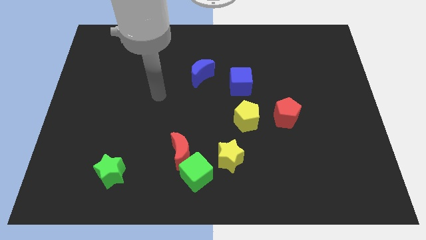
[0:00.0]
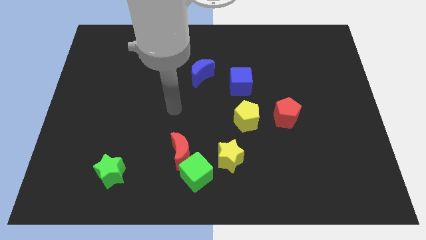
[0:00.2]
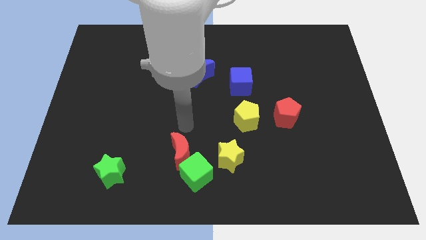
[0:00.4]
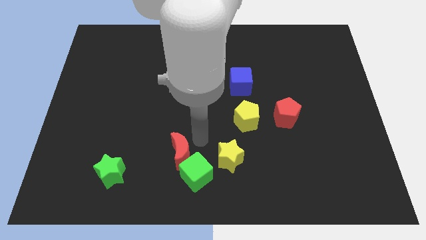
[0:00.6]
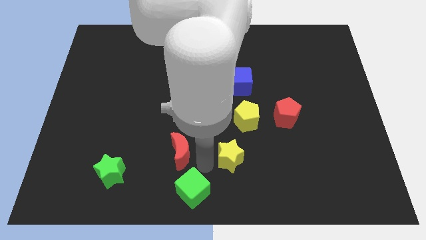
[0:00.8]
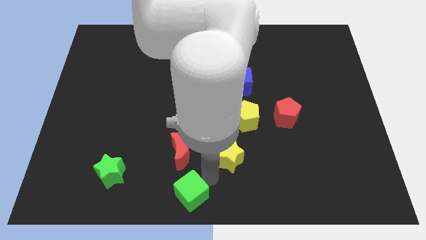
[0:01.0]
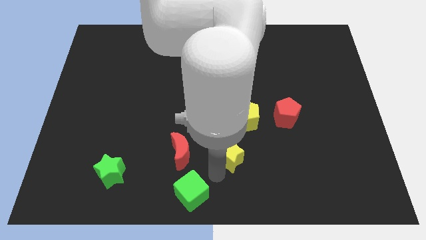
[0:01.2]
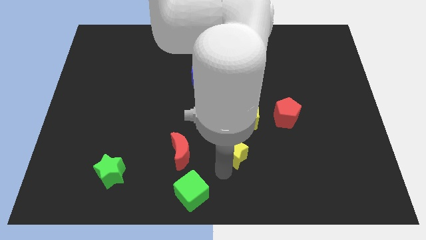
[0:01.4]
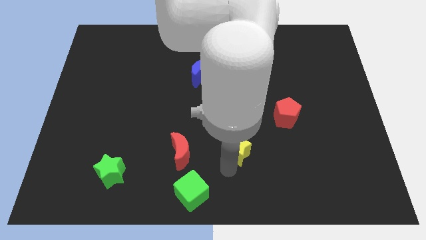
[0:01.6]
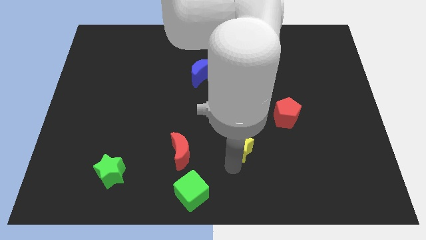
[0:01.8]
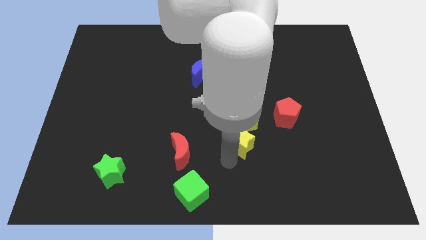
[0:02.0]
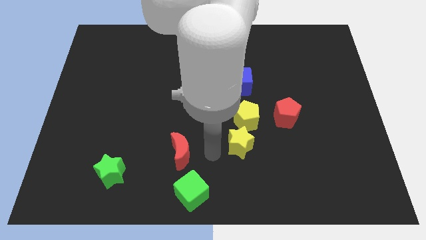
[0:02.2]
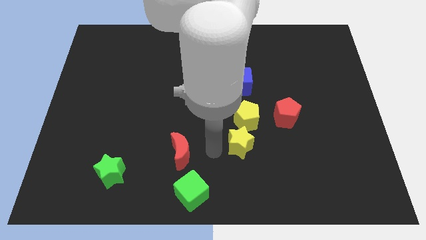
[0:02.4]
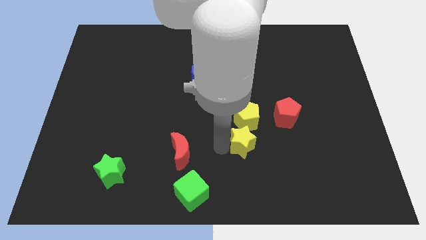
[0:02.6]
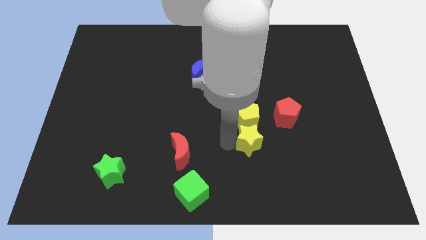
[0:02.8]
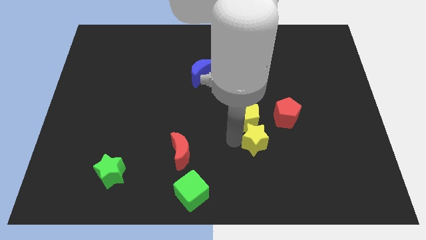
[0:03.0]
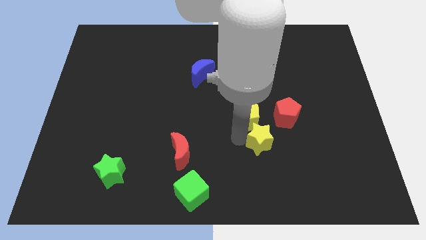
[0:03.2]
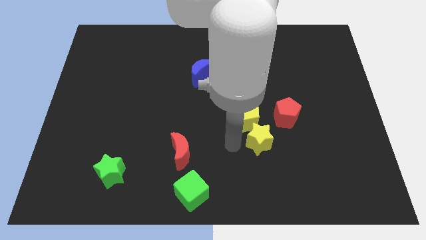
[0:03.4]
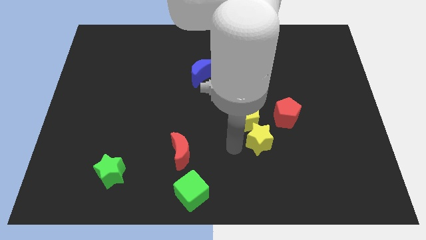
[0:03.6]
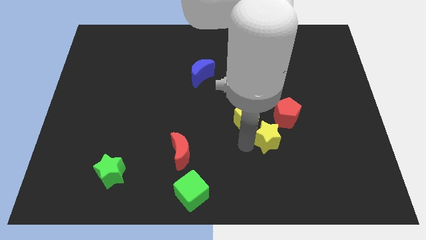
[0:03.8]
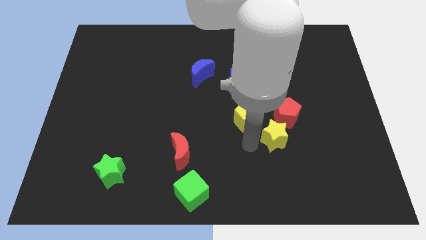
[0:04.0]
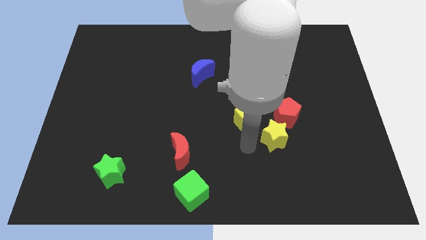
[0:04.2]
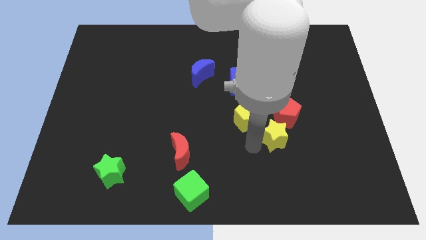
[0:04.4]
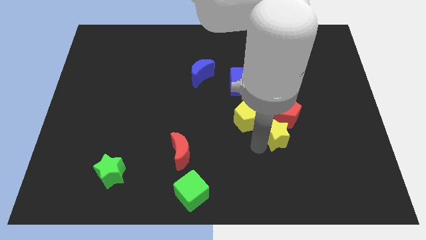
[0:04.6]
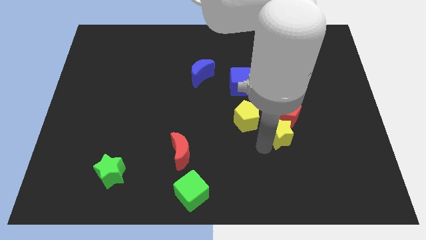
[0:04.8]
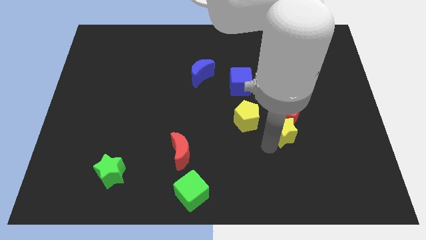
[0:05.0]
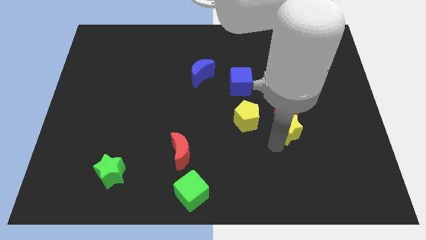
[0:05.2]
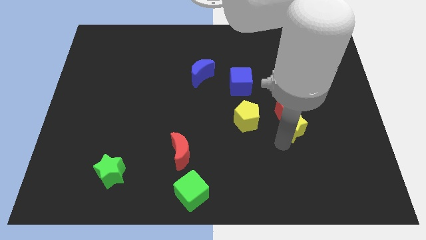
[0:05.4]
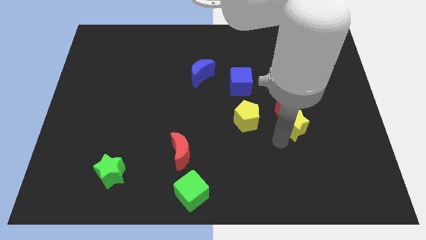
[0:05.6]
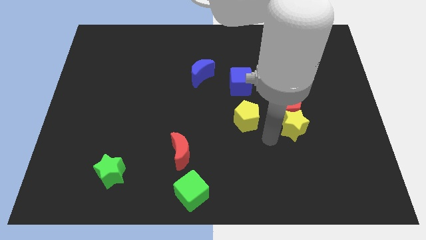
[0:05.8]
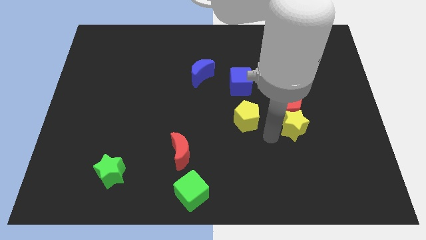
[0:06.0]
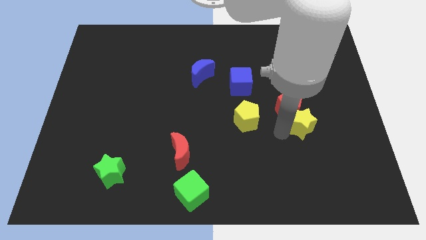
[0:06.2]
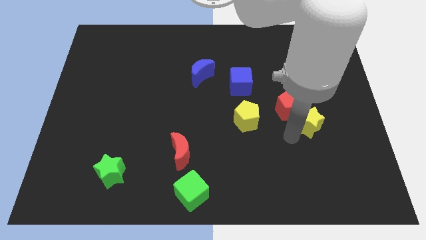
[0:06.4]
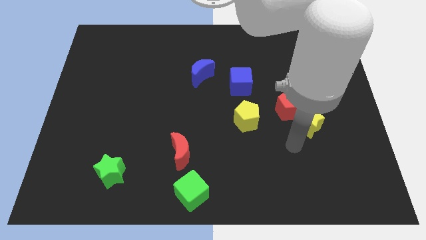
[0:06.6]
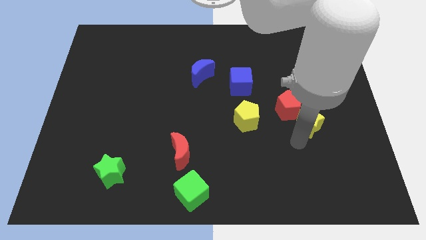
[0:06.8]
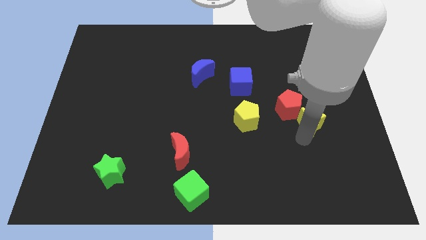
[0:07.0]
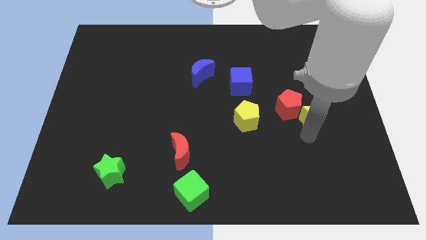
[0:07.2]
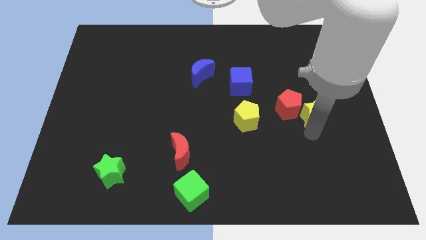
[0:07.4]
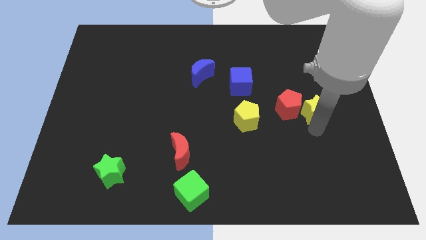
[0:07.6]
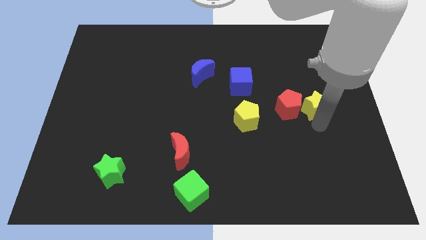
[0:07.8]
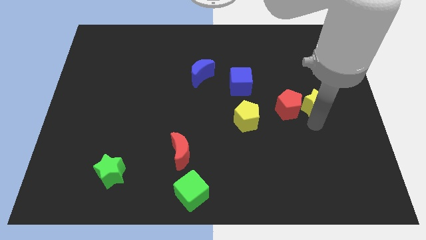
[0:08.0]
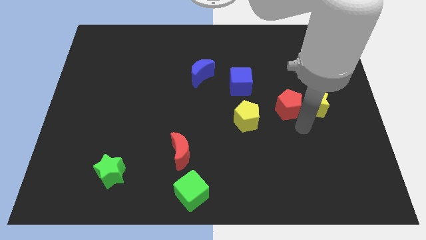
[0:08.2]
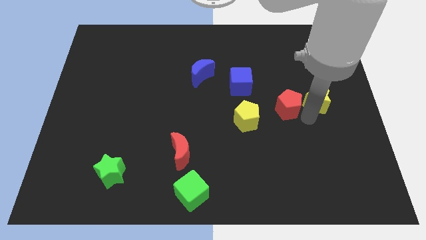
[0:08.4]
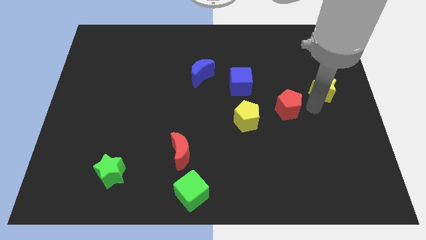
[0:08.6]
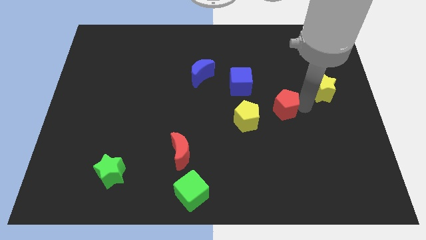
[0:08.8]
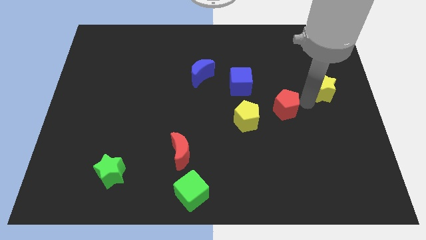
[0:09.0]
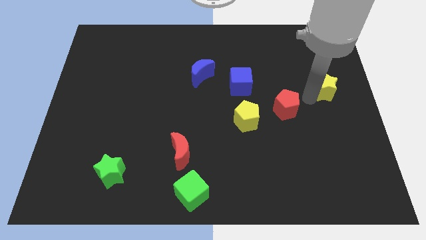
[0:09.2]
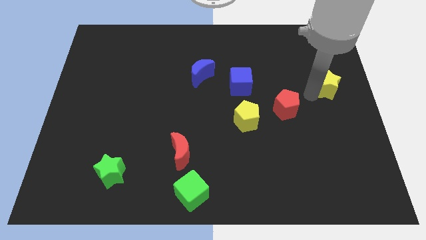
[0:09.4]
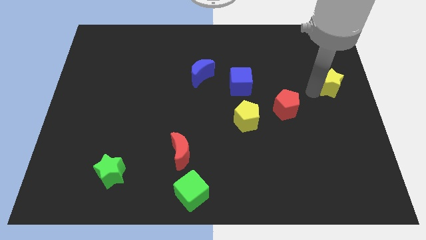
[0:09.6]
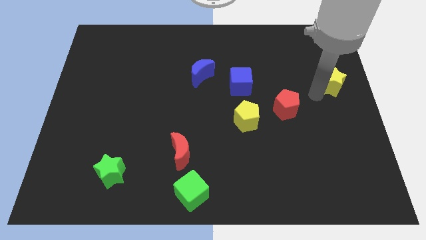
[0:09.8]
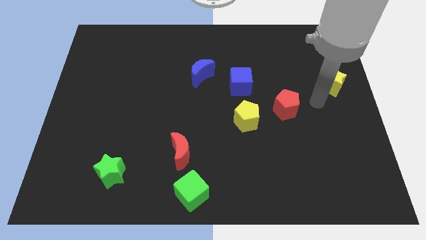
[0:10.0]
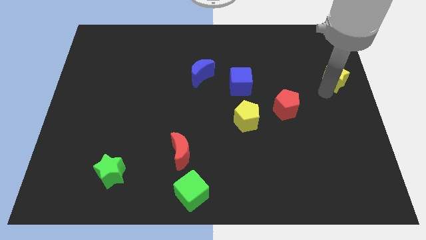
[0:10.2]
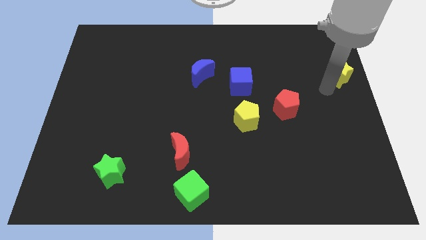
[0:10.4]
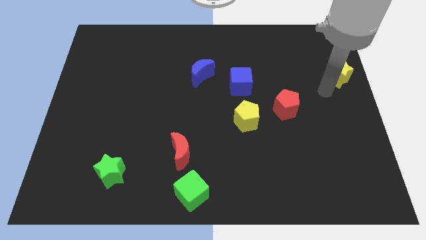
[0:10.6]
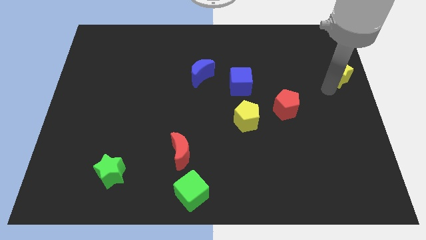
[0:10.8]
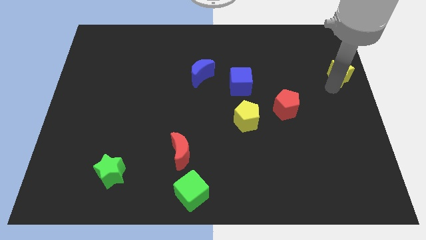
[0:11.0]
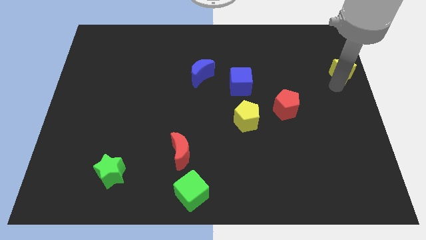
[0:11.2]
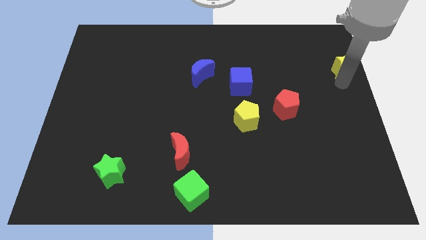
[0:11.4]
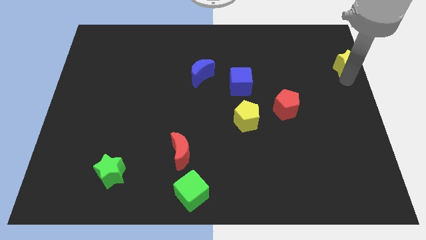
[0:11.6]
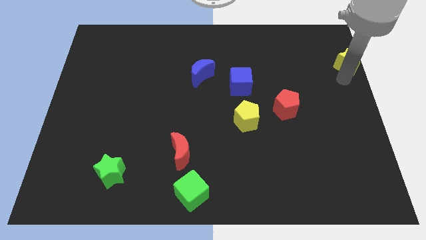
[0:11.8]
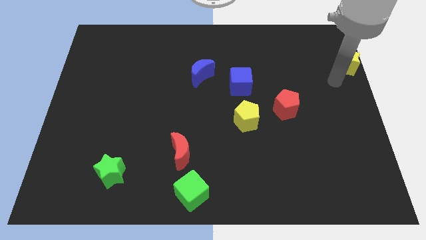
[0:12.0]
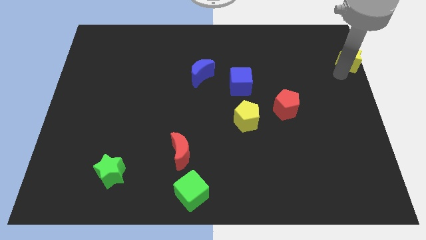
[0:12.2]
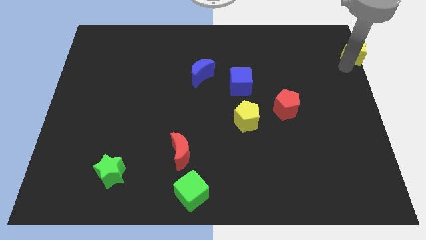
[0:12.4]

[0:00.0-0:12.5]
push the yellow star to the top right corner
